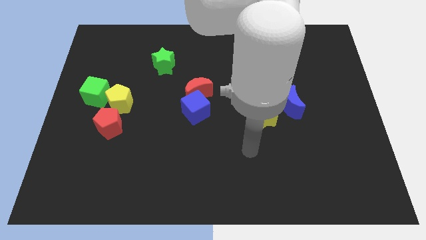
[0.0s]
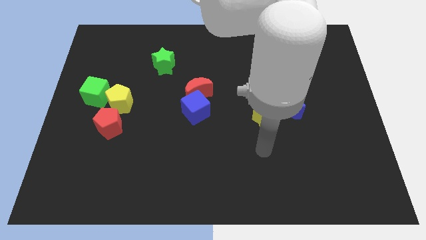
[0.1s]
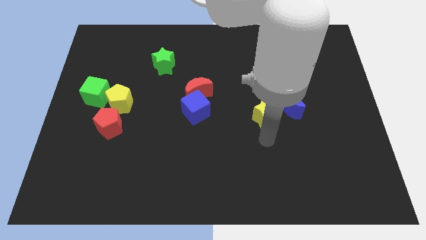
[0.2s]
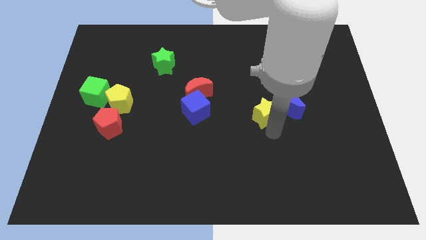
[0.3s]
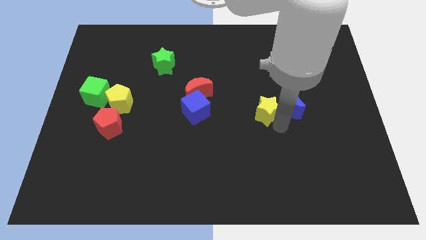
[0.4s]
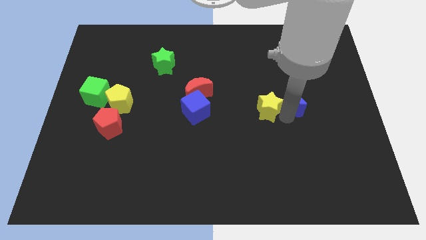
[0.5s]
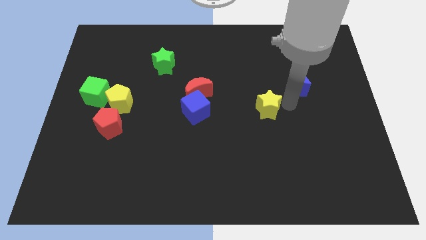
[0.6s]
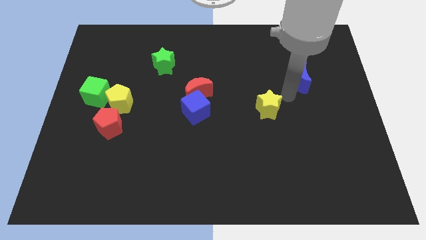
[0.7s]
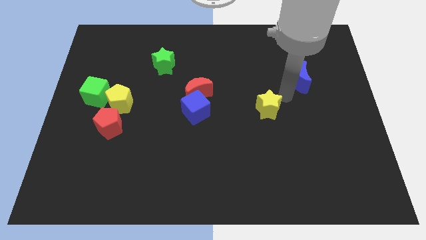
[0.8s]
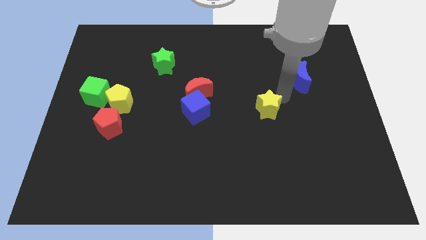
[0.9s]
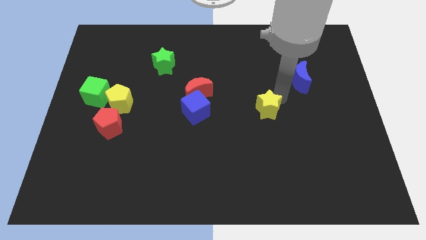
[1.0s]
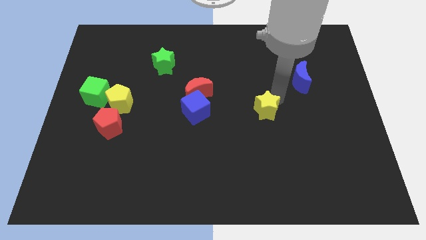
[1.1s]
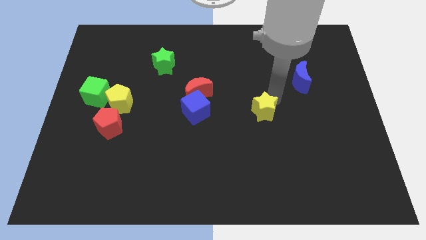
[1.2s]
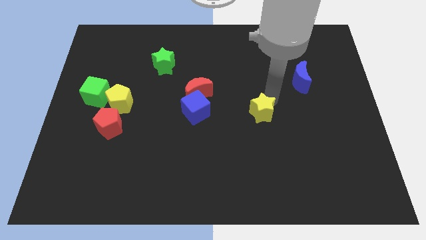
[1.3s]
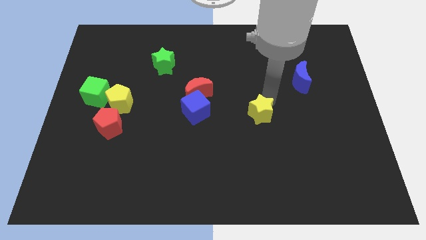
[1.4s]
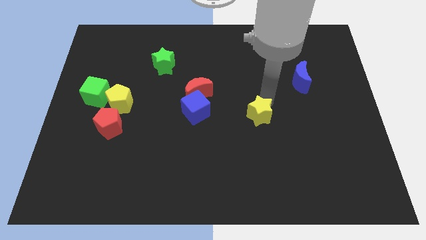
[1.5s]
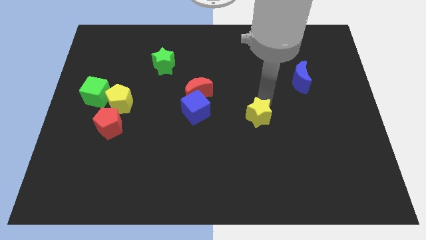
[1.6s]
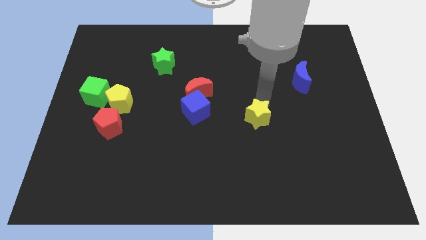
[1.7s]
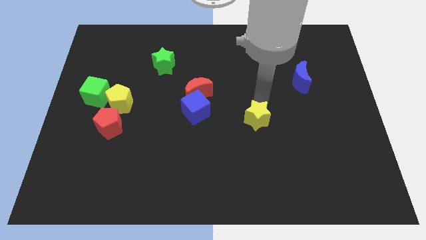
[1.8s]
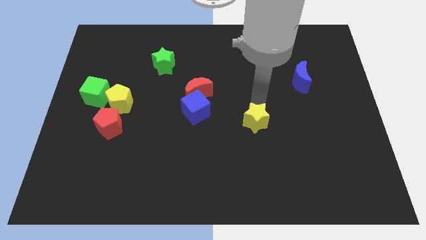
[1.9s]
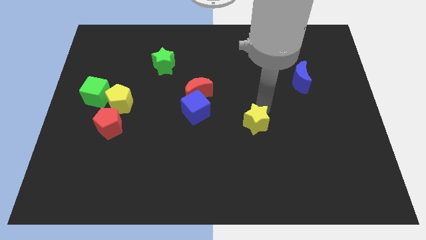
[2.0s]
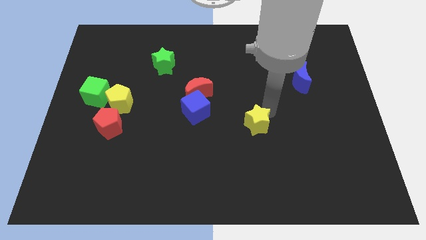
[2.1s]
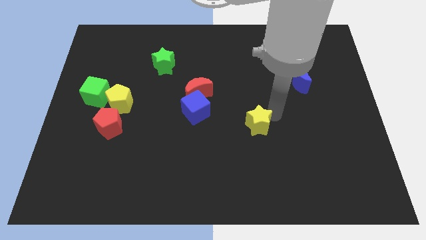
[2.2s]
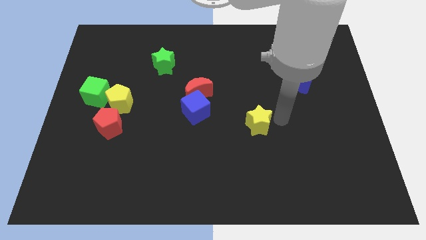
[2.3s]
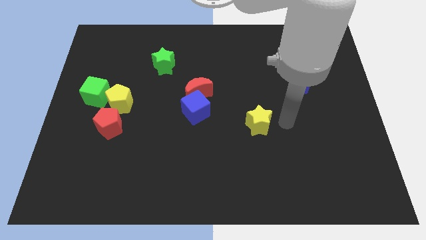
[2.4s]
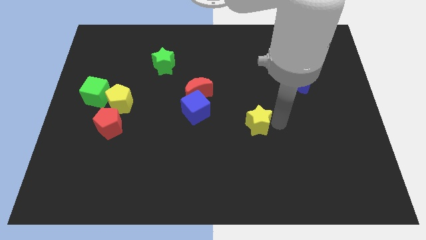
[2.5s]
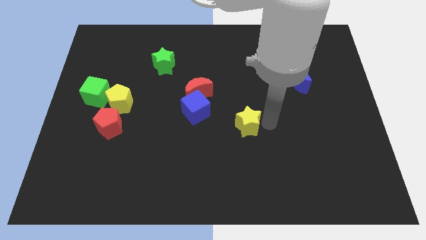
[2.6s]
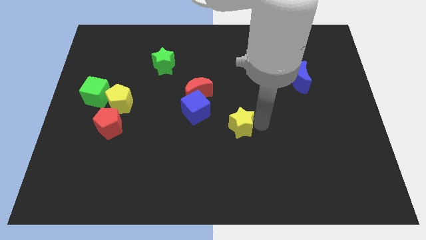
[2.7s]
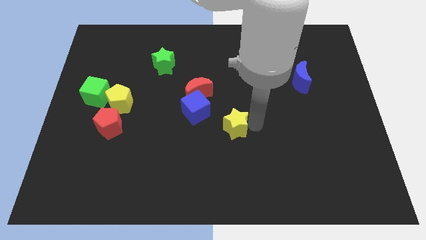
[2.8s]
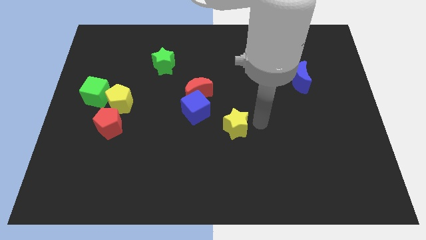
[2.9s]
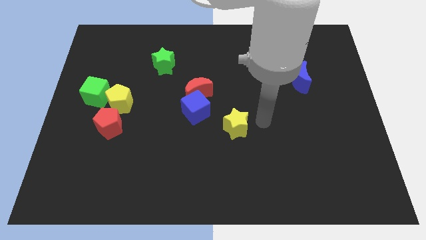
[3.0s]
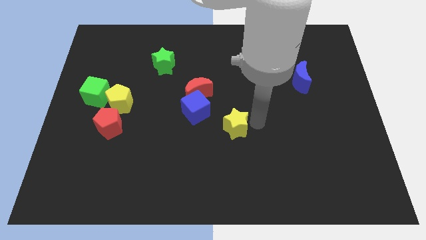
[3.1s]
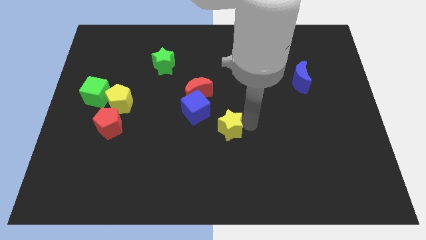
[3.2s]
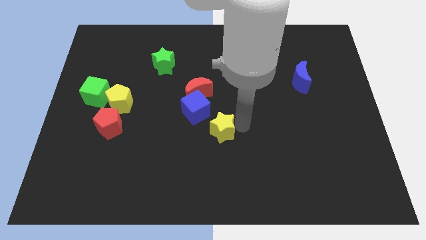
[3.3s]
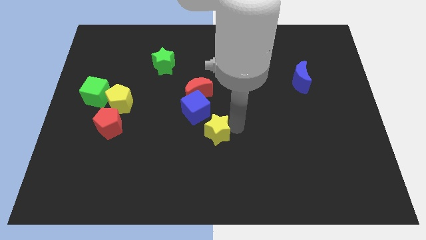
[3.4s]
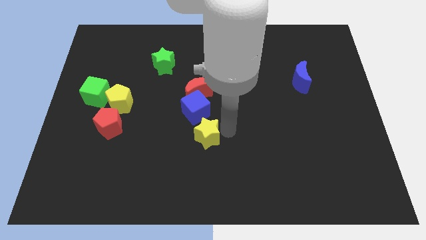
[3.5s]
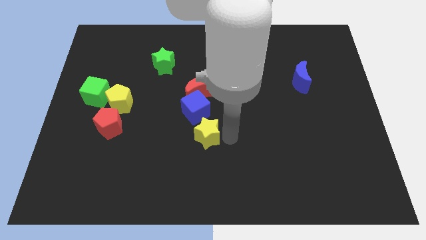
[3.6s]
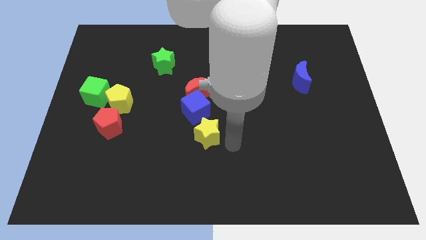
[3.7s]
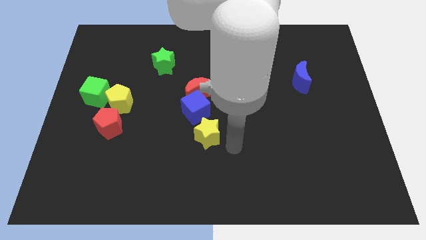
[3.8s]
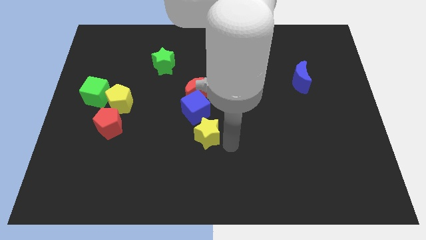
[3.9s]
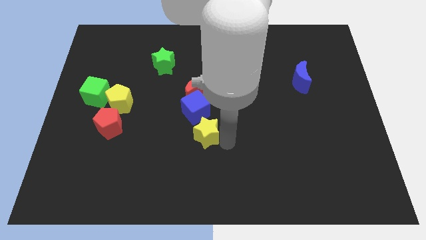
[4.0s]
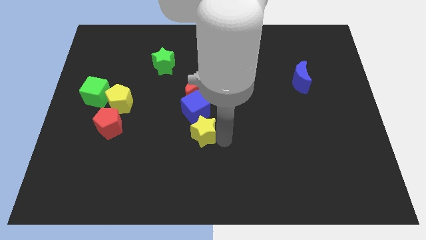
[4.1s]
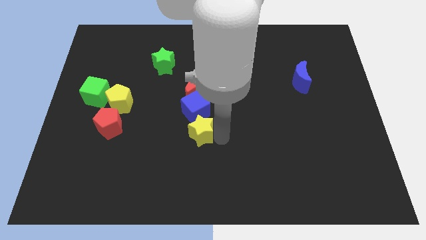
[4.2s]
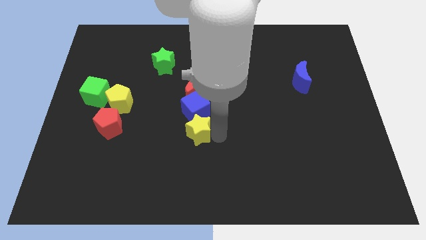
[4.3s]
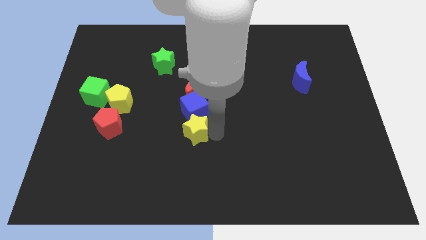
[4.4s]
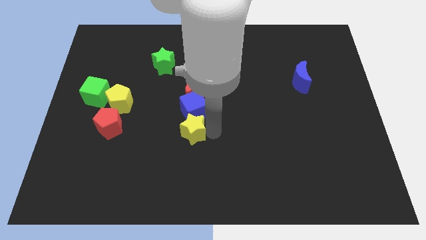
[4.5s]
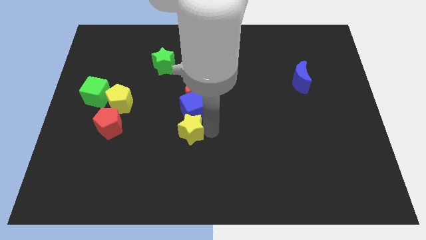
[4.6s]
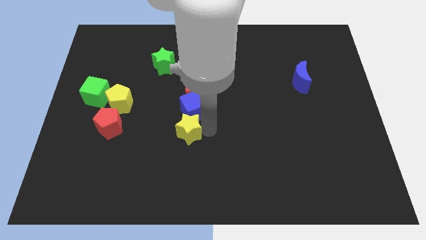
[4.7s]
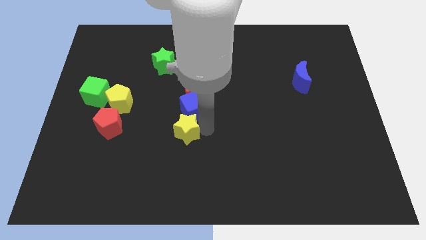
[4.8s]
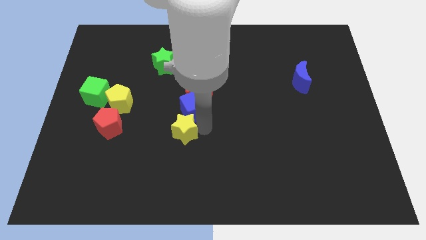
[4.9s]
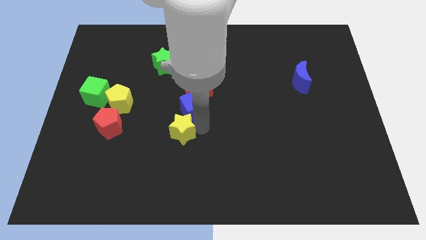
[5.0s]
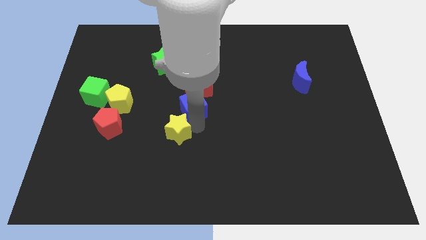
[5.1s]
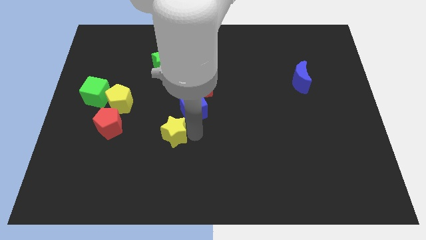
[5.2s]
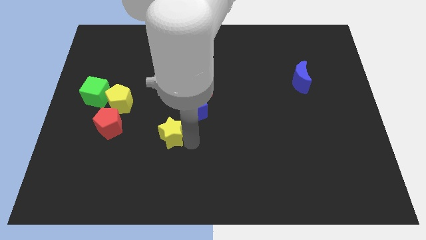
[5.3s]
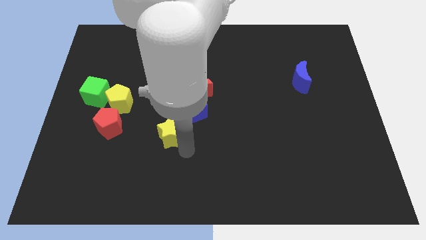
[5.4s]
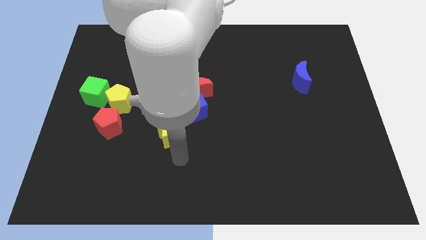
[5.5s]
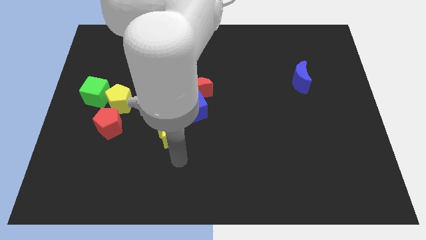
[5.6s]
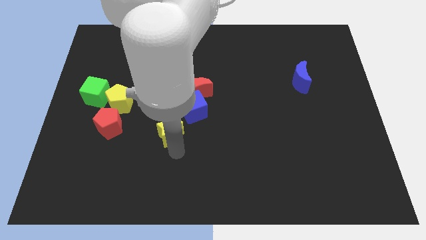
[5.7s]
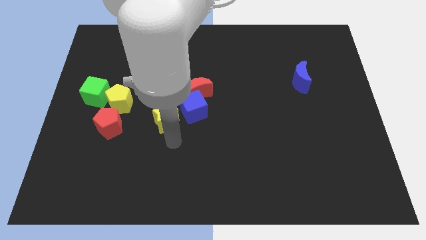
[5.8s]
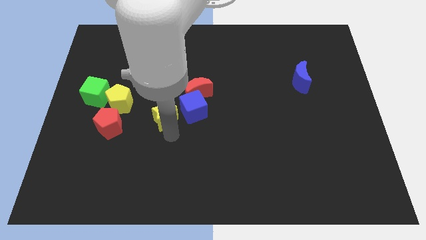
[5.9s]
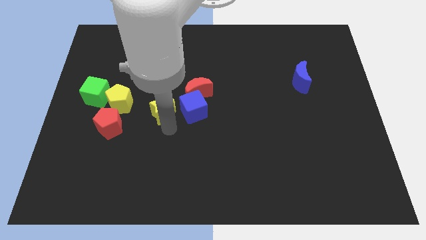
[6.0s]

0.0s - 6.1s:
put the yellow star to the bottom of the green star

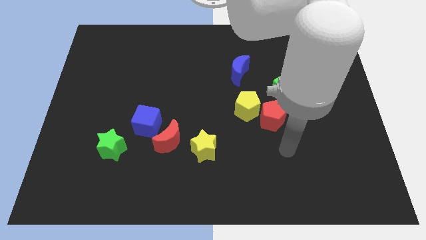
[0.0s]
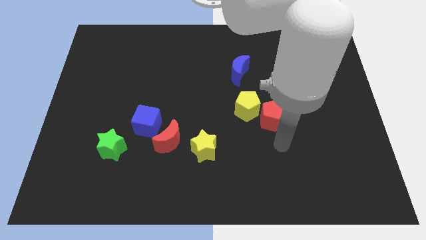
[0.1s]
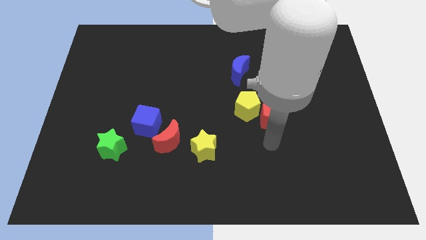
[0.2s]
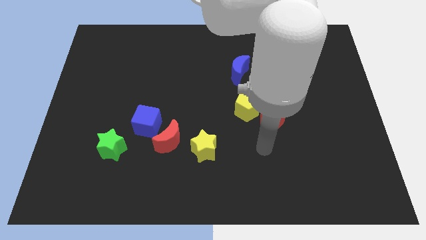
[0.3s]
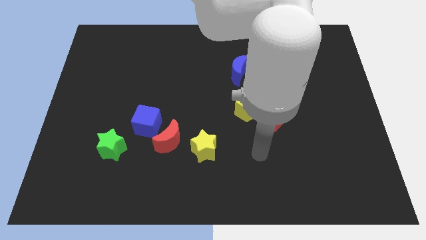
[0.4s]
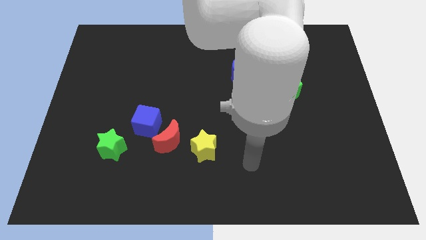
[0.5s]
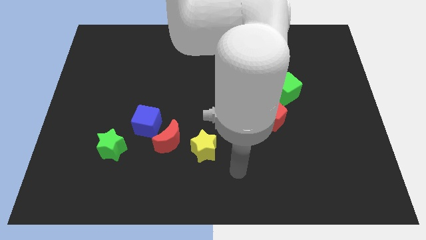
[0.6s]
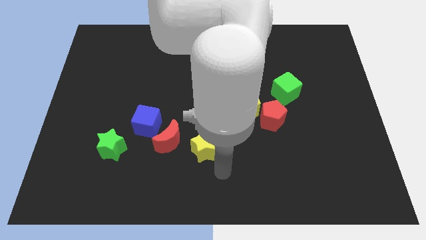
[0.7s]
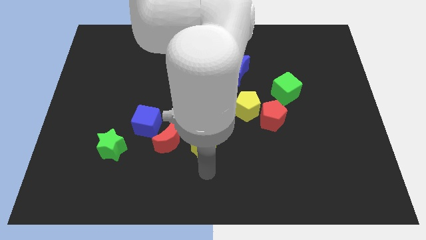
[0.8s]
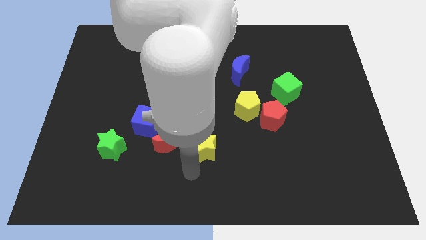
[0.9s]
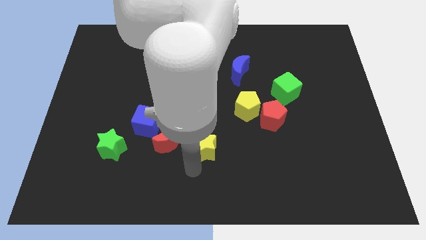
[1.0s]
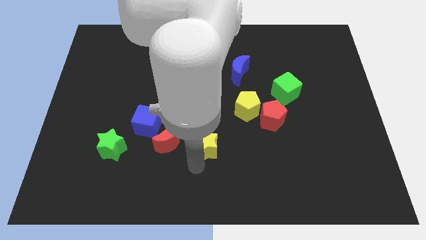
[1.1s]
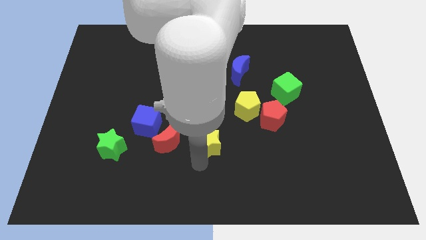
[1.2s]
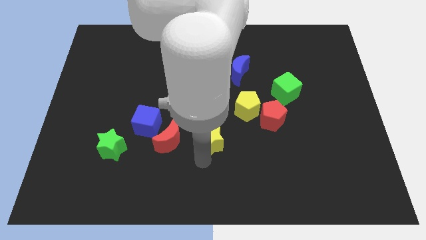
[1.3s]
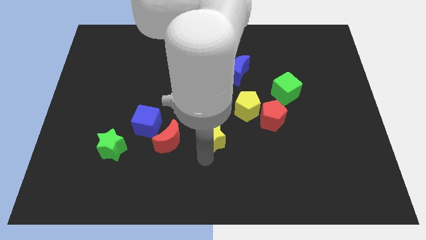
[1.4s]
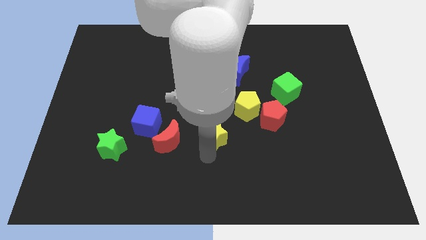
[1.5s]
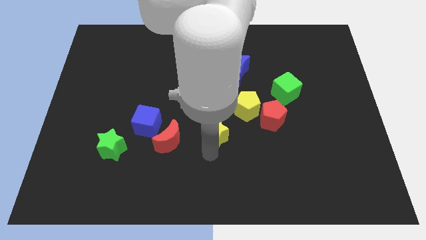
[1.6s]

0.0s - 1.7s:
move the yellow star left of the red pentagon

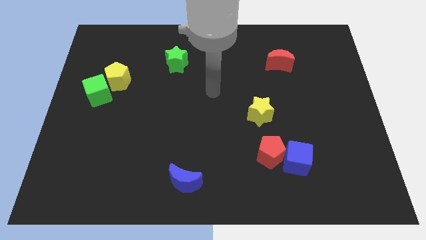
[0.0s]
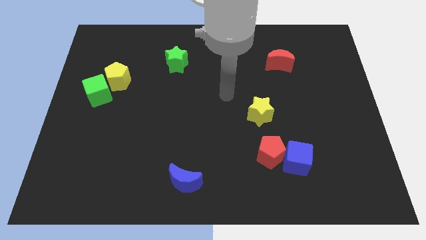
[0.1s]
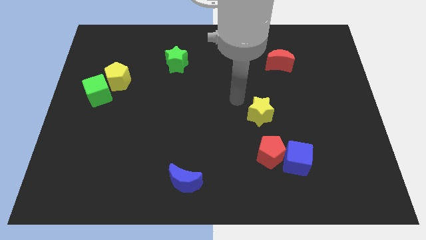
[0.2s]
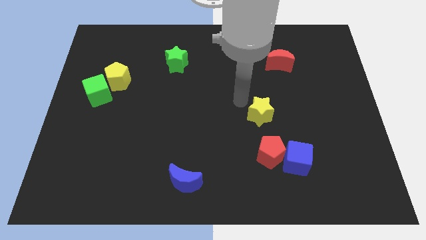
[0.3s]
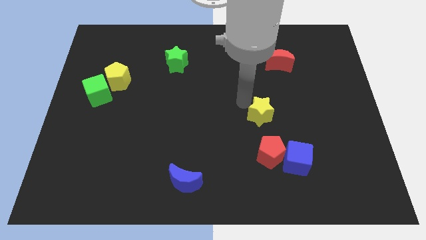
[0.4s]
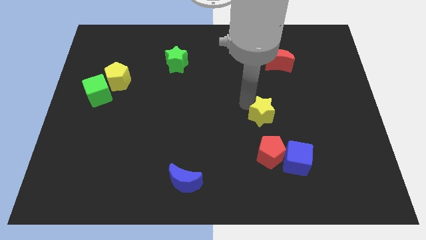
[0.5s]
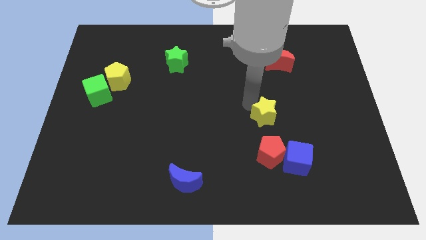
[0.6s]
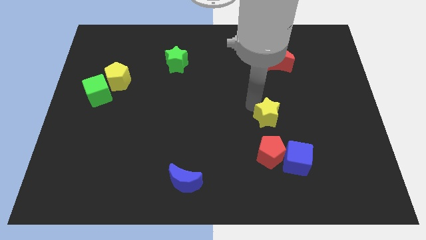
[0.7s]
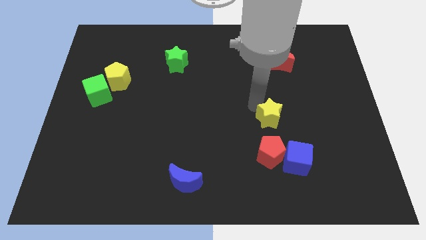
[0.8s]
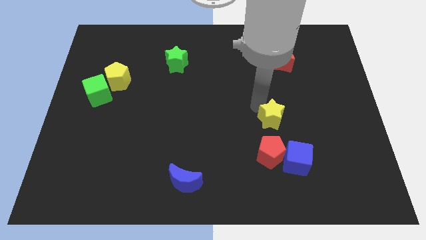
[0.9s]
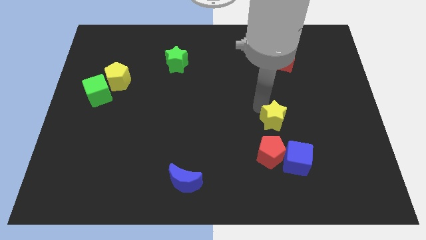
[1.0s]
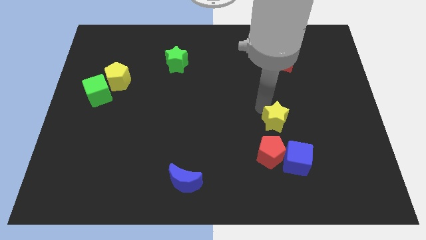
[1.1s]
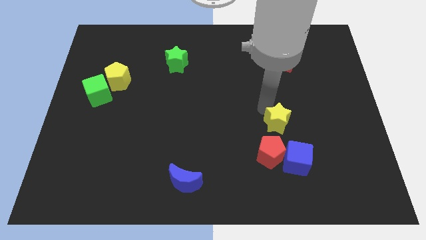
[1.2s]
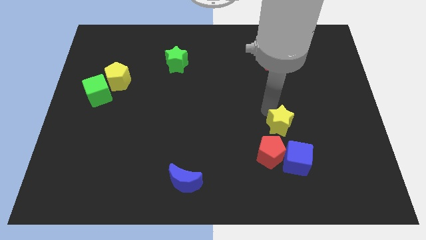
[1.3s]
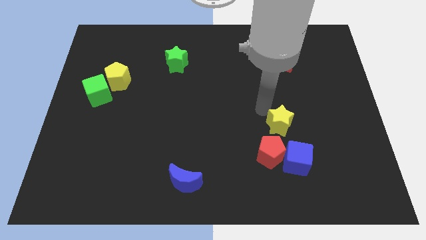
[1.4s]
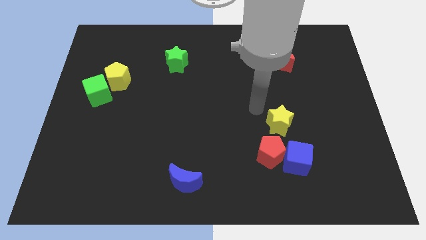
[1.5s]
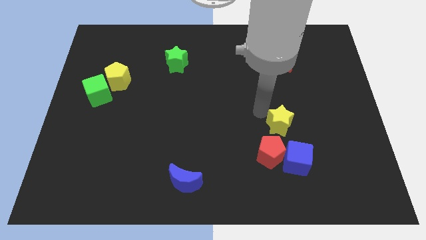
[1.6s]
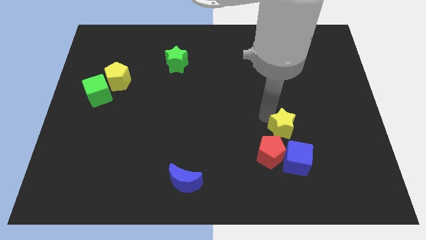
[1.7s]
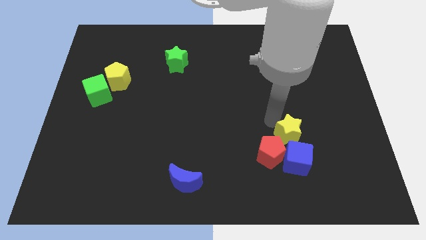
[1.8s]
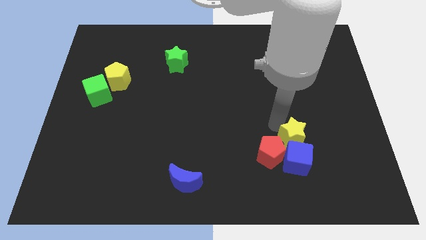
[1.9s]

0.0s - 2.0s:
put the yellow star just right of the red pentagon
